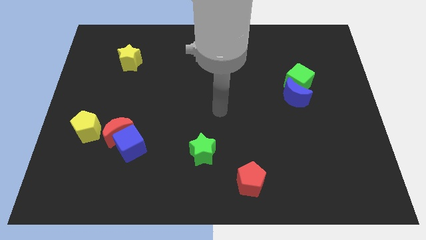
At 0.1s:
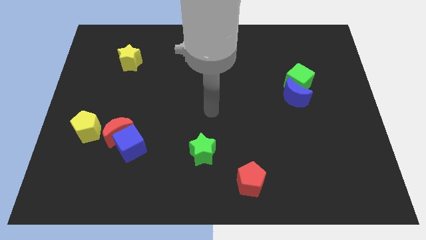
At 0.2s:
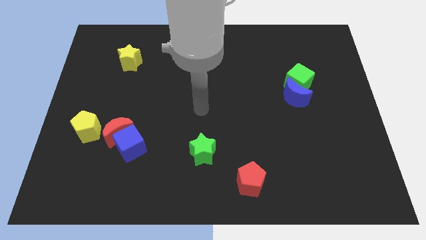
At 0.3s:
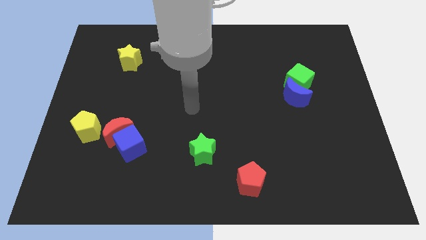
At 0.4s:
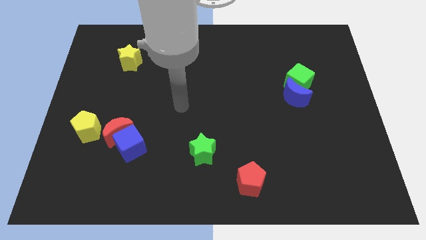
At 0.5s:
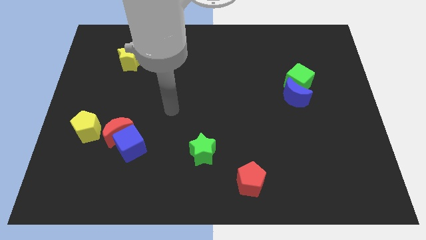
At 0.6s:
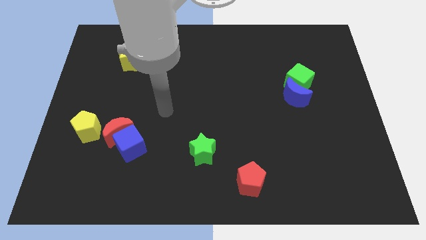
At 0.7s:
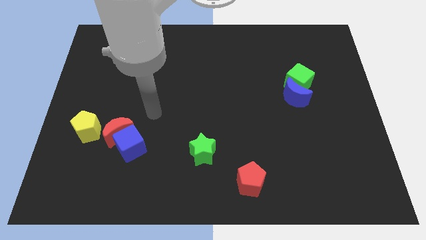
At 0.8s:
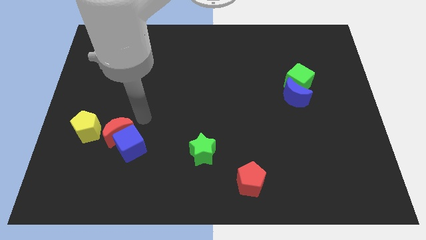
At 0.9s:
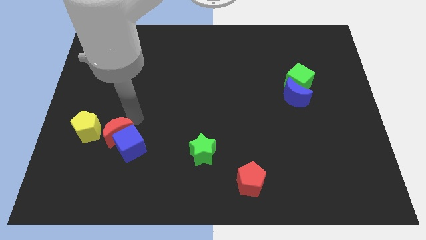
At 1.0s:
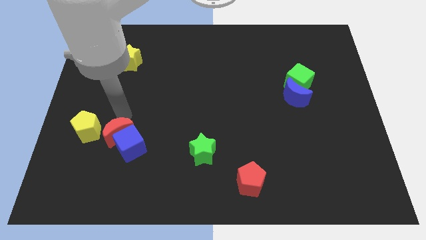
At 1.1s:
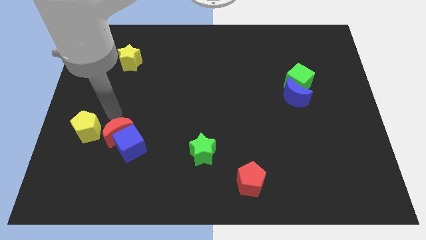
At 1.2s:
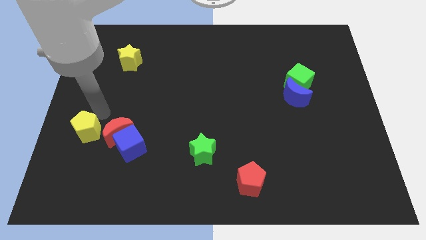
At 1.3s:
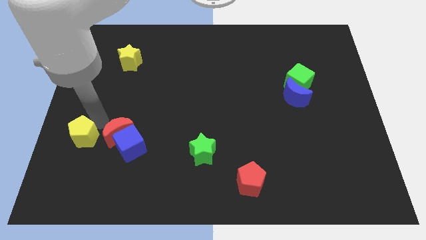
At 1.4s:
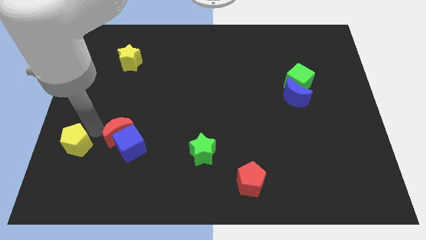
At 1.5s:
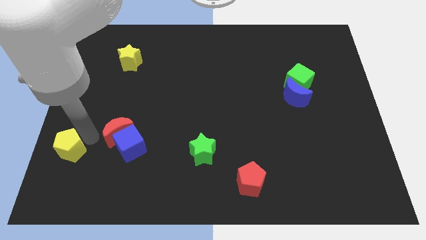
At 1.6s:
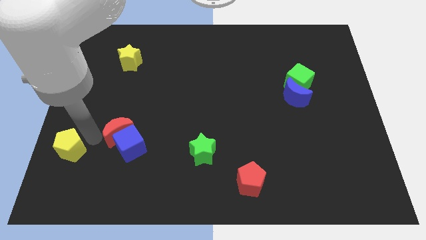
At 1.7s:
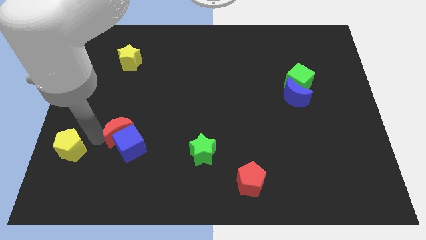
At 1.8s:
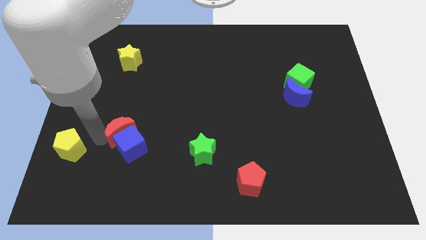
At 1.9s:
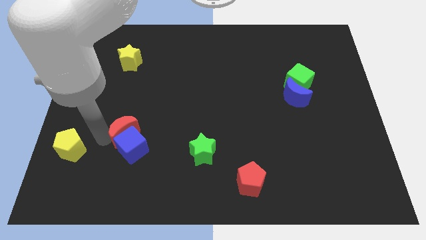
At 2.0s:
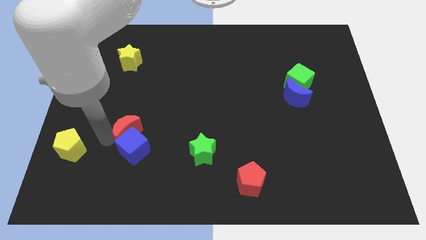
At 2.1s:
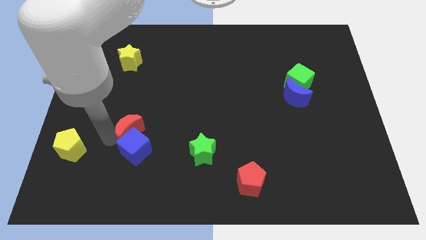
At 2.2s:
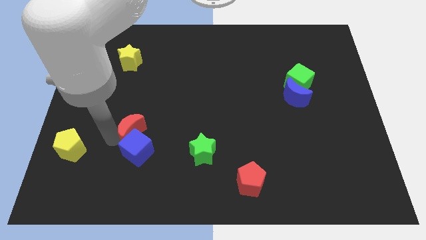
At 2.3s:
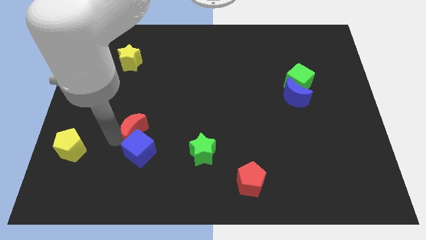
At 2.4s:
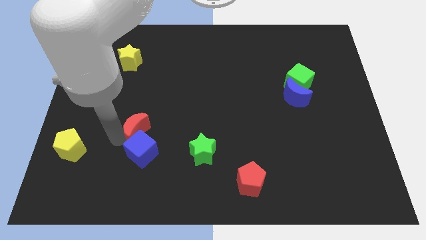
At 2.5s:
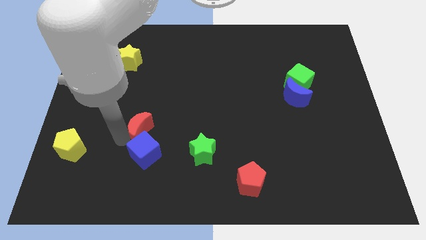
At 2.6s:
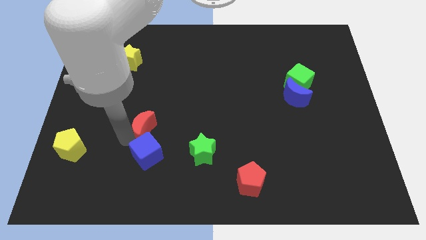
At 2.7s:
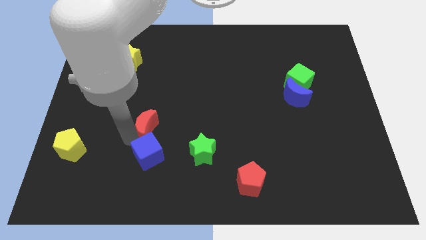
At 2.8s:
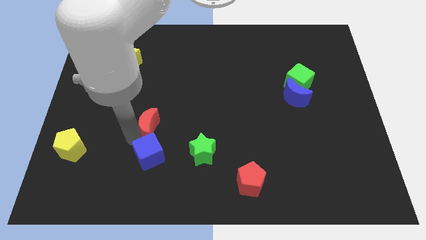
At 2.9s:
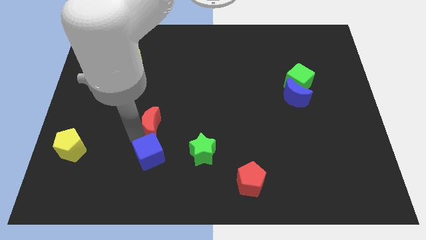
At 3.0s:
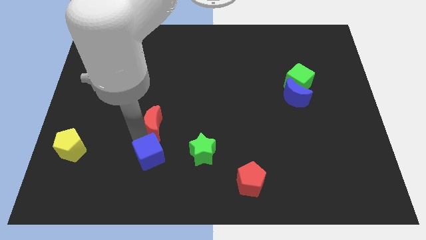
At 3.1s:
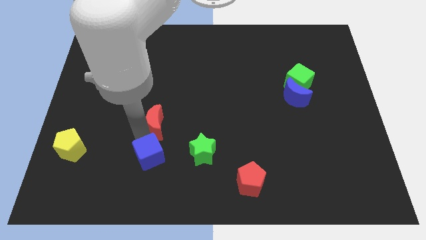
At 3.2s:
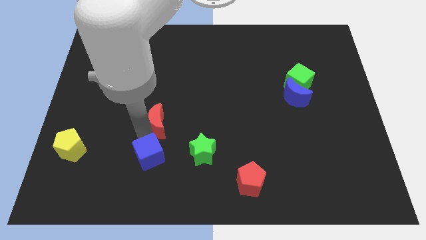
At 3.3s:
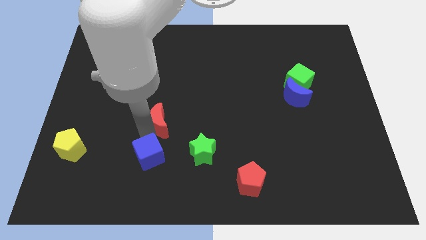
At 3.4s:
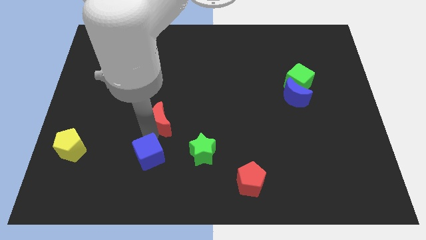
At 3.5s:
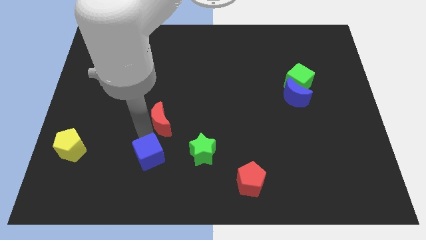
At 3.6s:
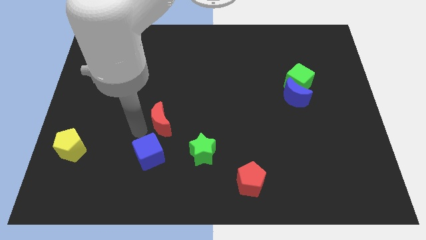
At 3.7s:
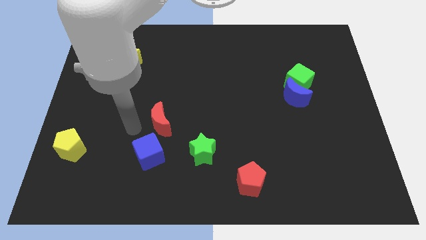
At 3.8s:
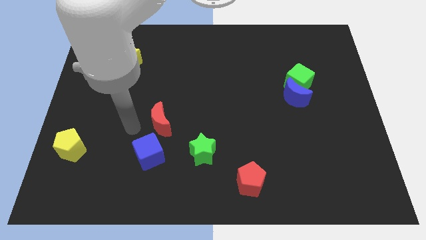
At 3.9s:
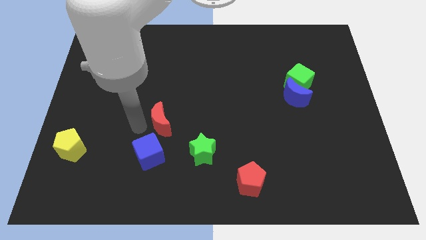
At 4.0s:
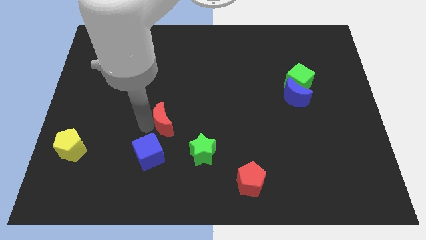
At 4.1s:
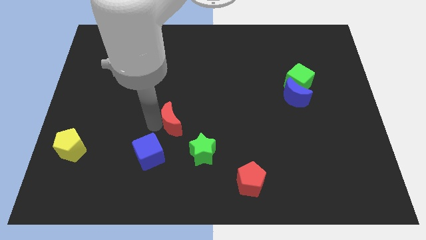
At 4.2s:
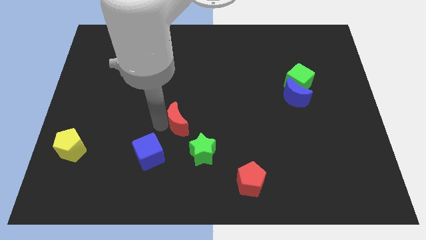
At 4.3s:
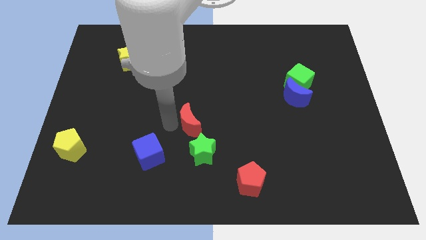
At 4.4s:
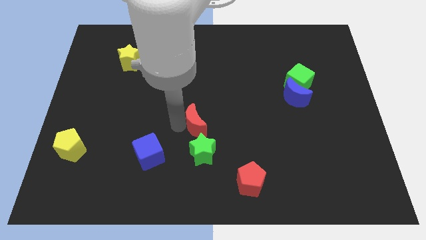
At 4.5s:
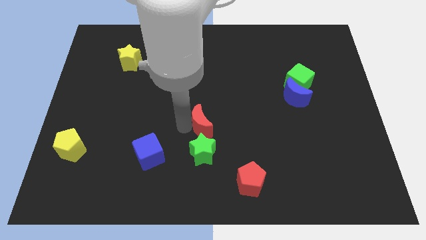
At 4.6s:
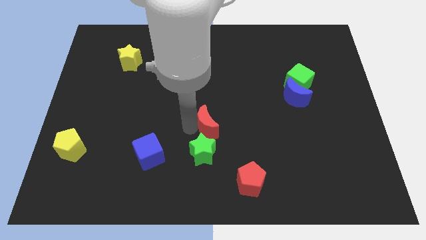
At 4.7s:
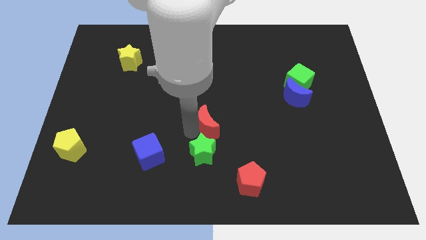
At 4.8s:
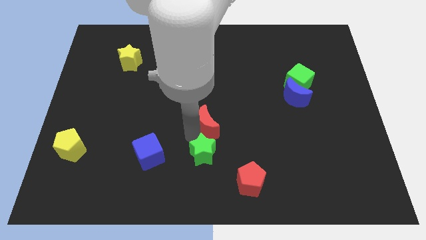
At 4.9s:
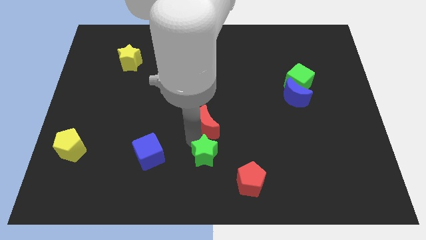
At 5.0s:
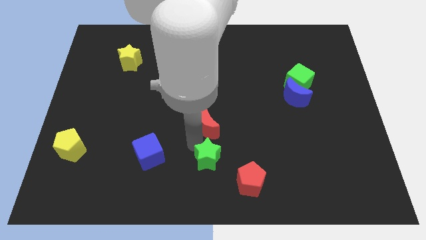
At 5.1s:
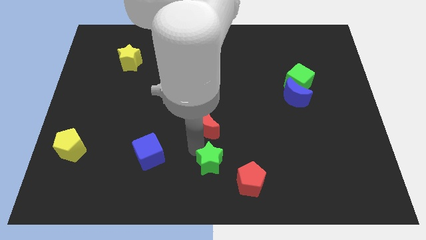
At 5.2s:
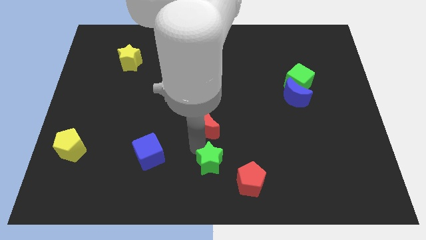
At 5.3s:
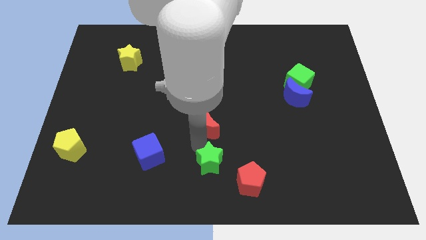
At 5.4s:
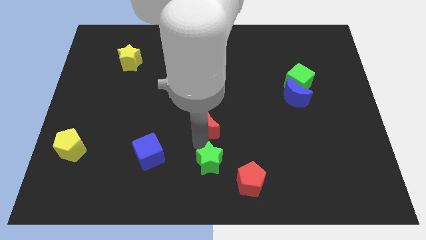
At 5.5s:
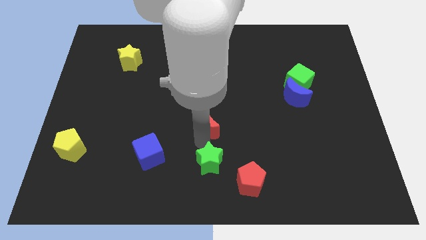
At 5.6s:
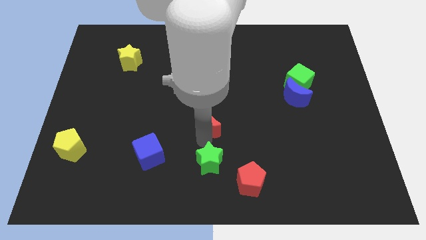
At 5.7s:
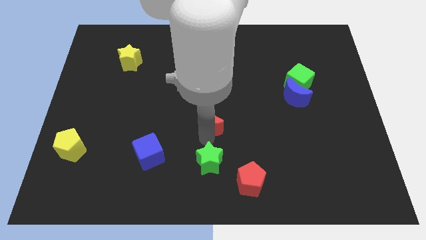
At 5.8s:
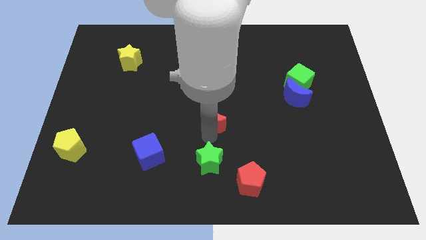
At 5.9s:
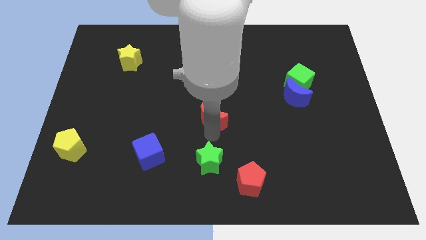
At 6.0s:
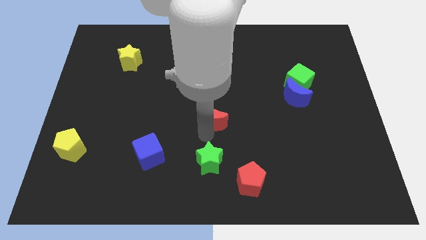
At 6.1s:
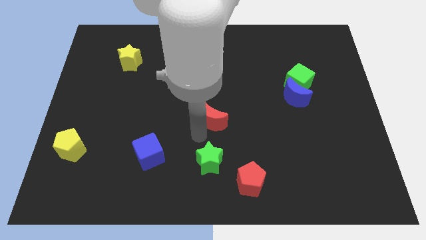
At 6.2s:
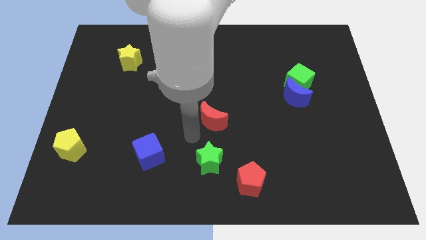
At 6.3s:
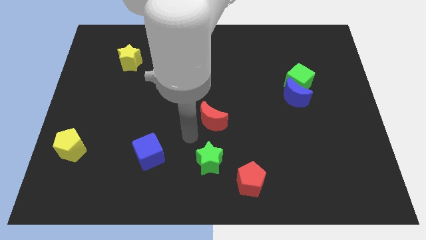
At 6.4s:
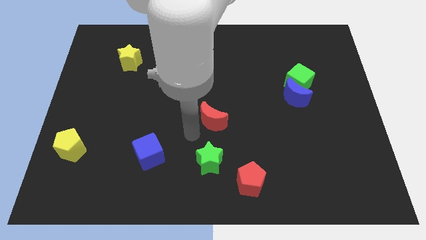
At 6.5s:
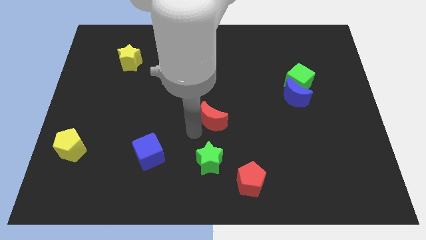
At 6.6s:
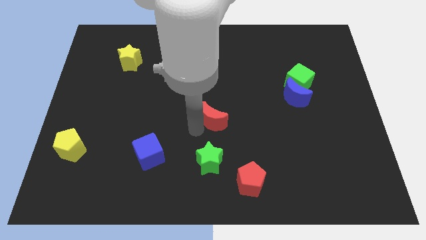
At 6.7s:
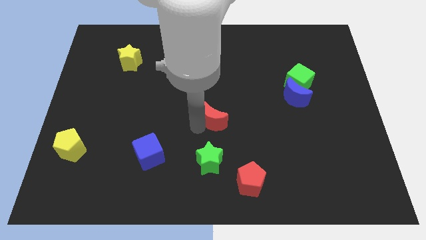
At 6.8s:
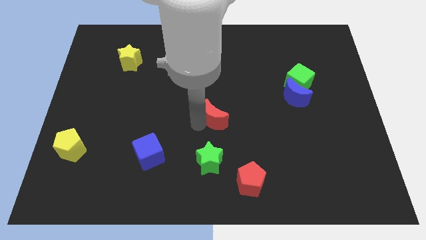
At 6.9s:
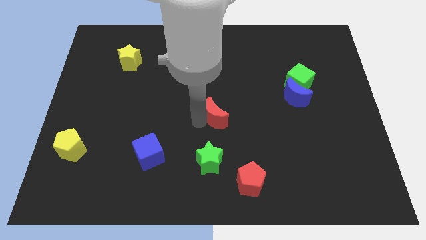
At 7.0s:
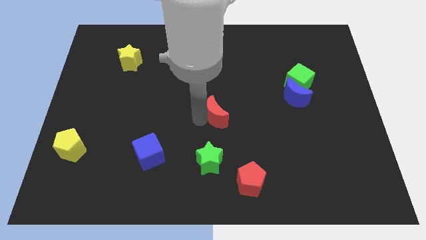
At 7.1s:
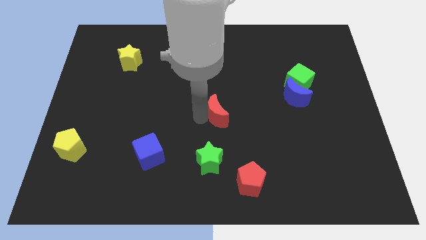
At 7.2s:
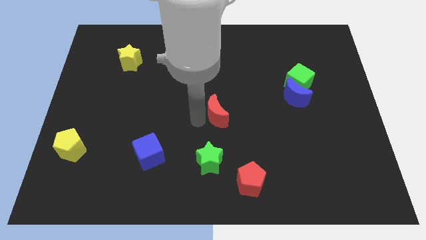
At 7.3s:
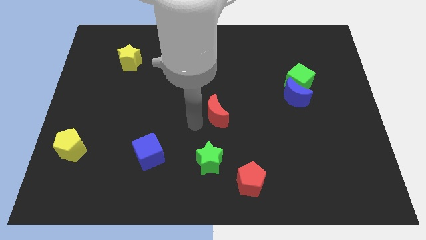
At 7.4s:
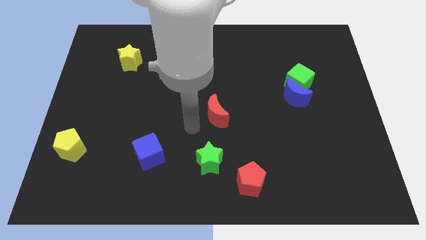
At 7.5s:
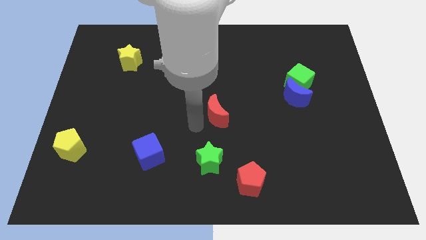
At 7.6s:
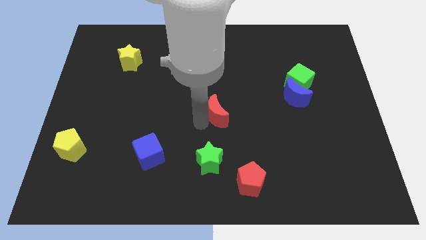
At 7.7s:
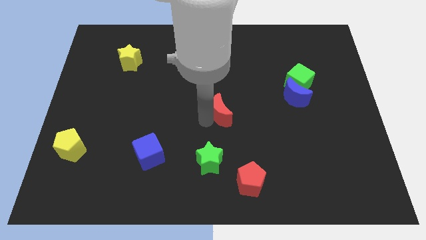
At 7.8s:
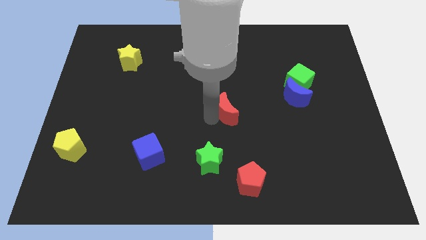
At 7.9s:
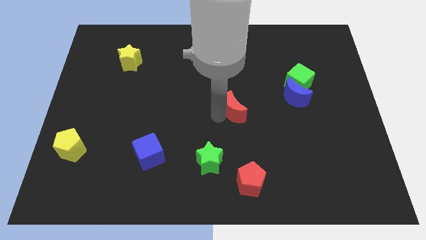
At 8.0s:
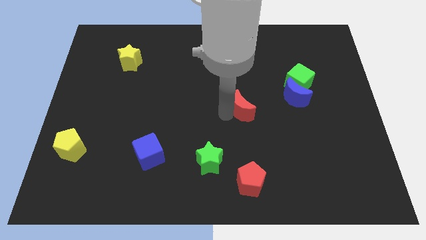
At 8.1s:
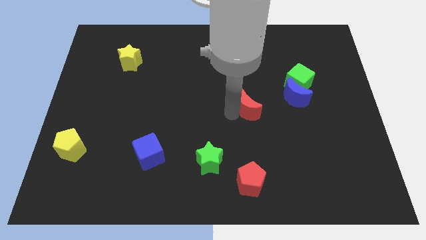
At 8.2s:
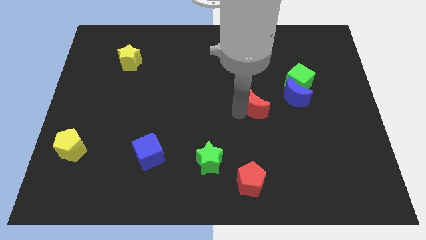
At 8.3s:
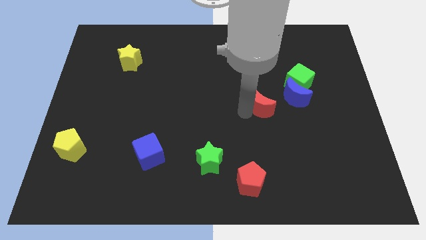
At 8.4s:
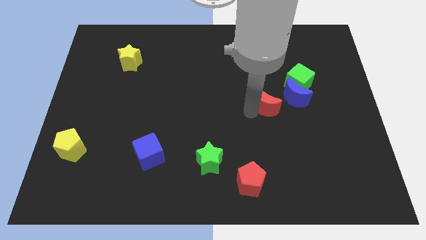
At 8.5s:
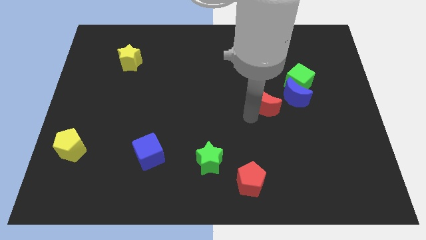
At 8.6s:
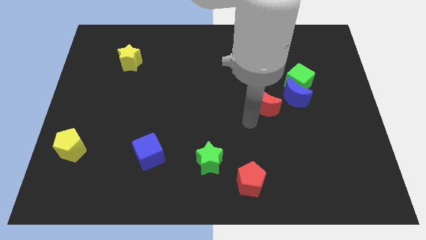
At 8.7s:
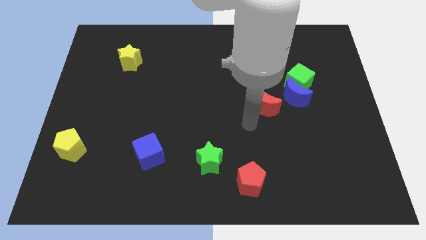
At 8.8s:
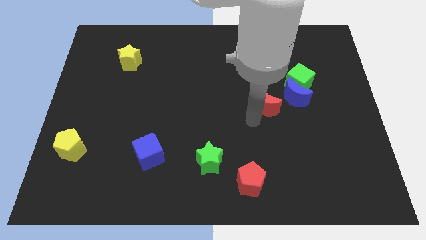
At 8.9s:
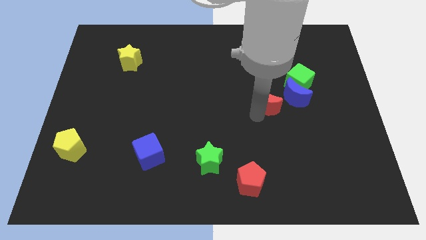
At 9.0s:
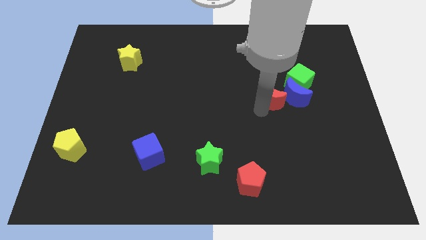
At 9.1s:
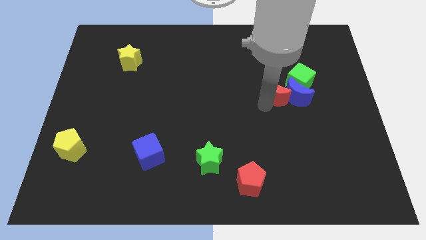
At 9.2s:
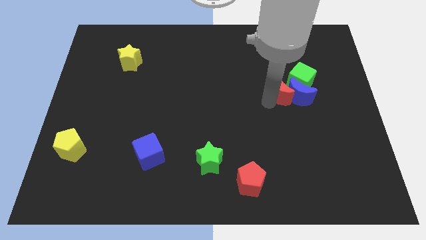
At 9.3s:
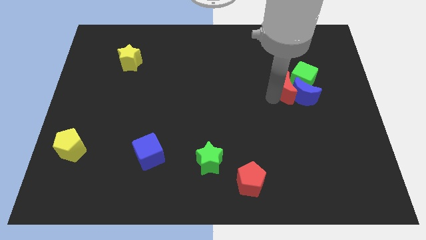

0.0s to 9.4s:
slide the red moon towards the green cube
